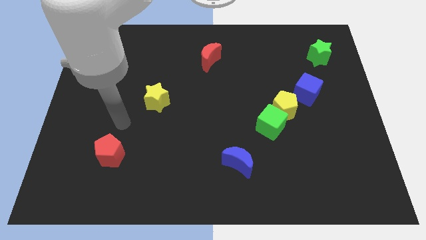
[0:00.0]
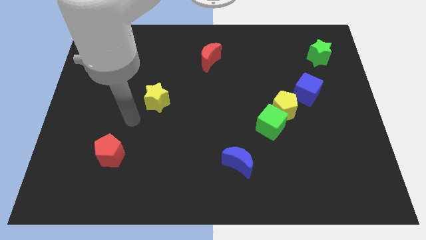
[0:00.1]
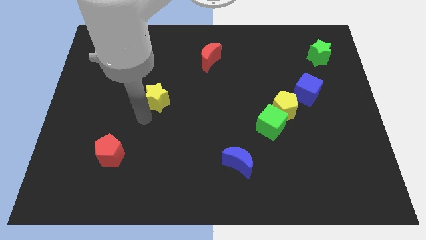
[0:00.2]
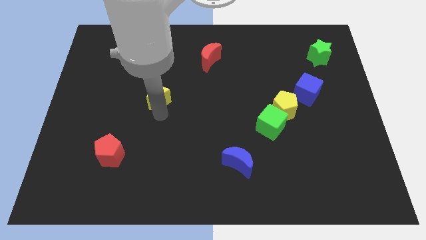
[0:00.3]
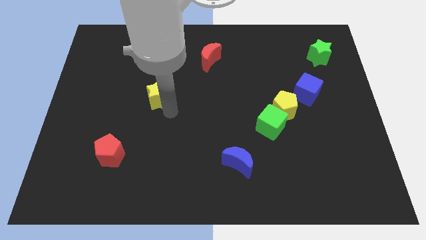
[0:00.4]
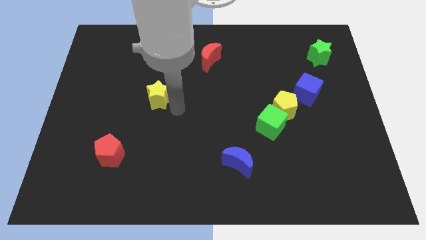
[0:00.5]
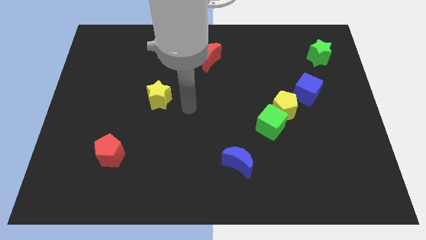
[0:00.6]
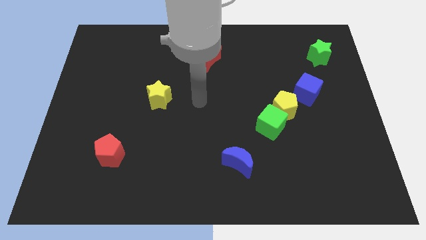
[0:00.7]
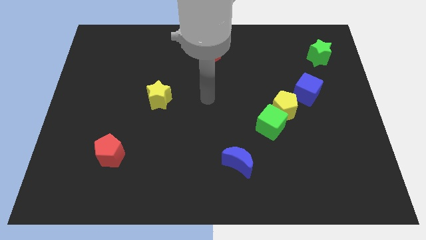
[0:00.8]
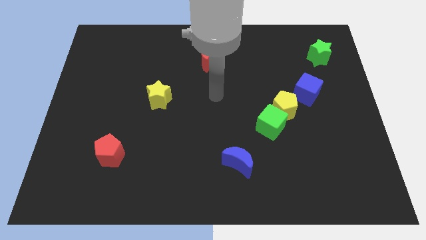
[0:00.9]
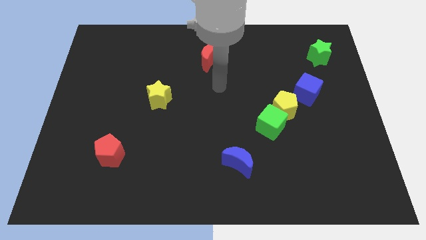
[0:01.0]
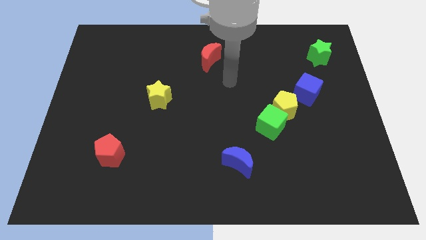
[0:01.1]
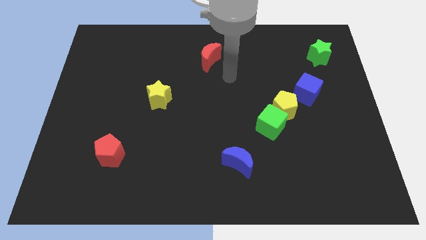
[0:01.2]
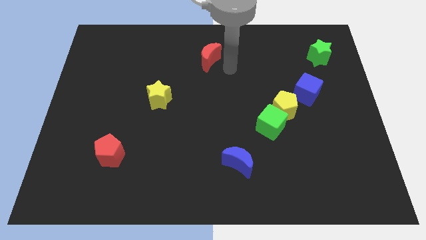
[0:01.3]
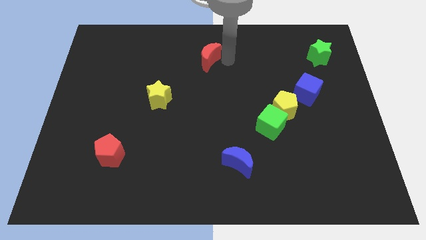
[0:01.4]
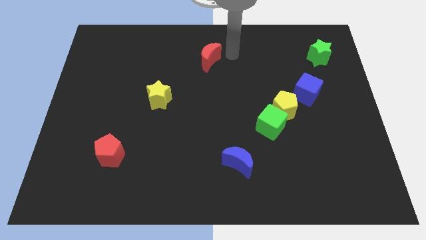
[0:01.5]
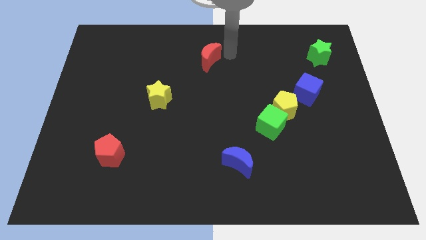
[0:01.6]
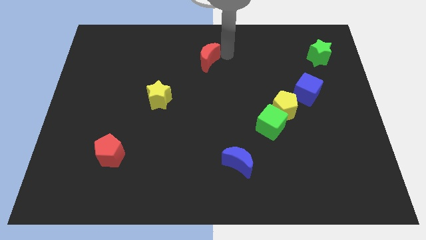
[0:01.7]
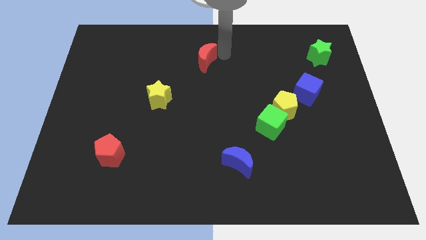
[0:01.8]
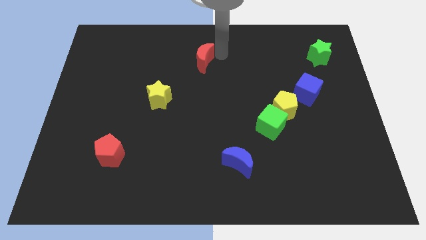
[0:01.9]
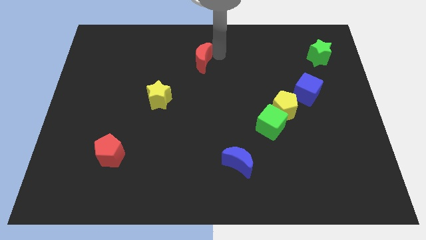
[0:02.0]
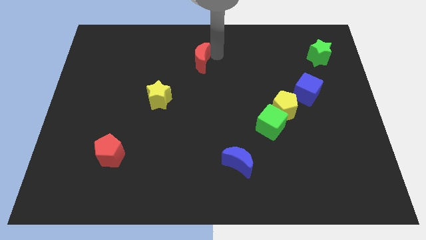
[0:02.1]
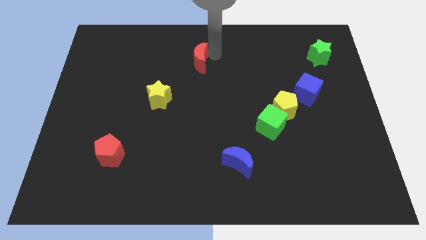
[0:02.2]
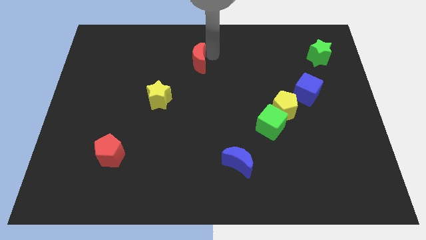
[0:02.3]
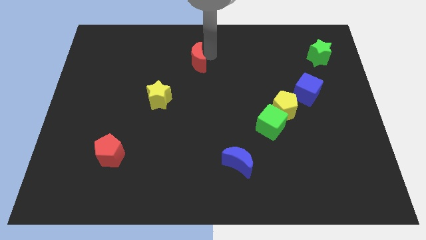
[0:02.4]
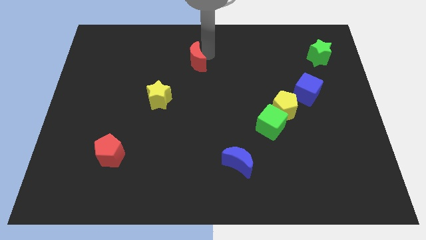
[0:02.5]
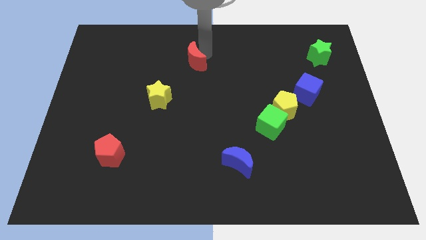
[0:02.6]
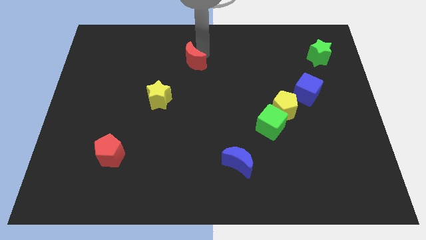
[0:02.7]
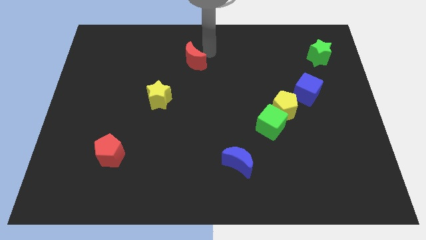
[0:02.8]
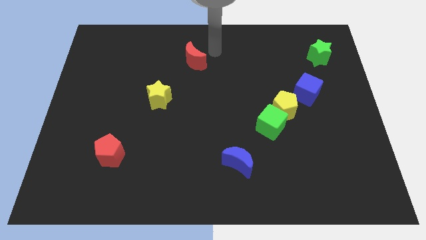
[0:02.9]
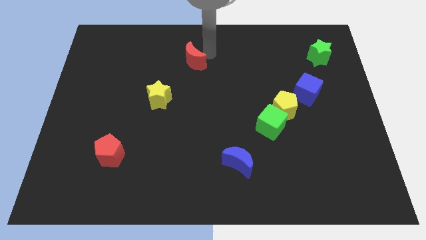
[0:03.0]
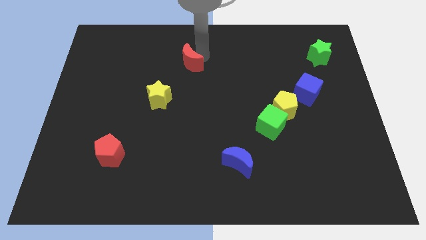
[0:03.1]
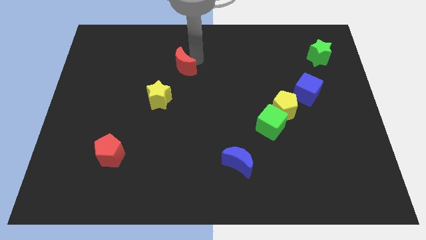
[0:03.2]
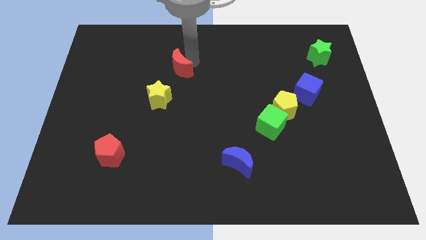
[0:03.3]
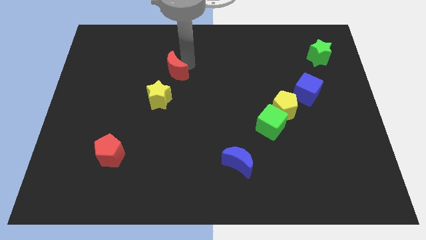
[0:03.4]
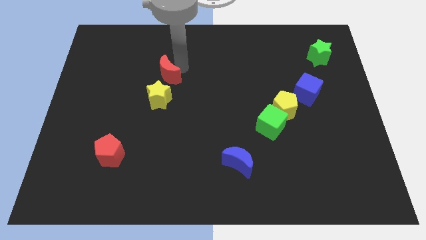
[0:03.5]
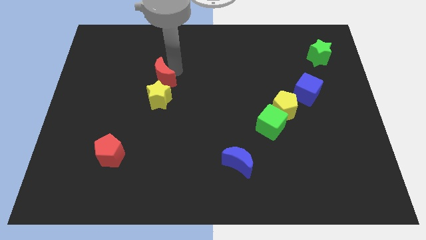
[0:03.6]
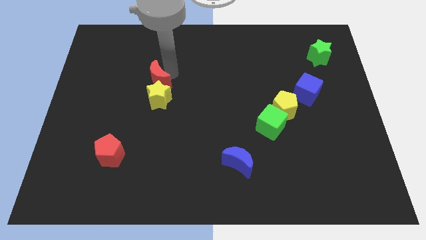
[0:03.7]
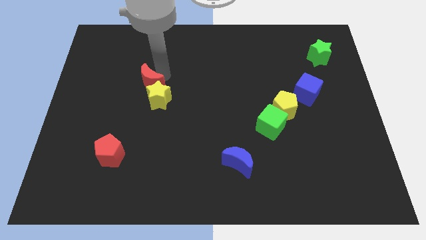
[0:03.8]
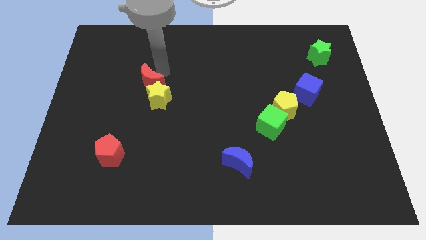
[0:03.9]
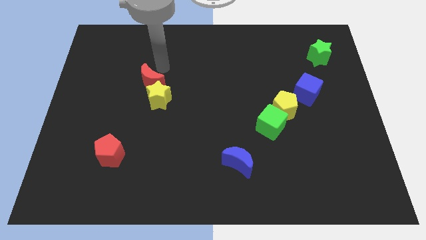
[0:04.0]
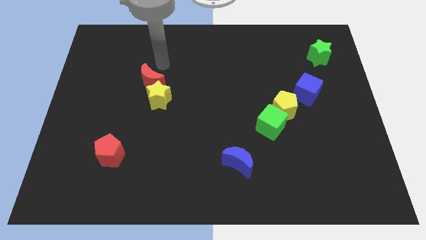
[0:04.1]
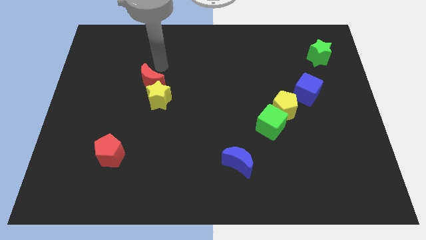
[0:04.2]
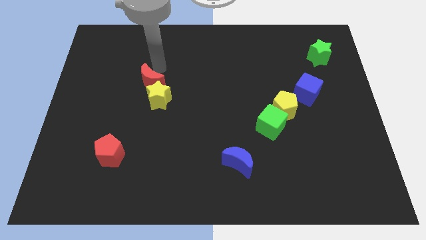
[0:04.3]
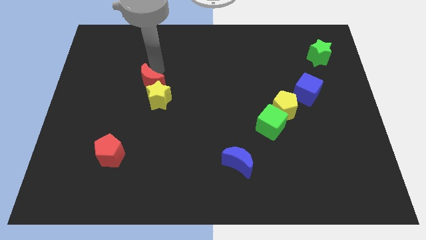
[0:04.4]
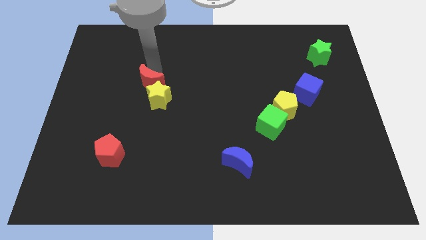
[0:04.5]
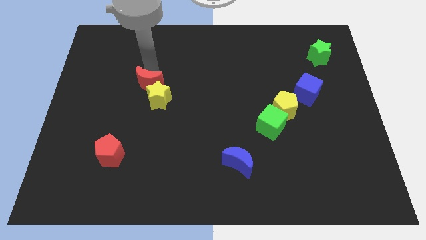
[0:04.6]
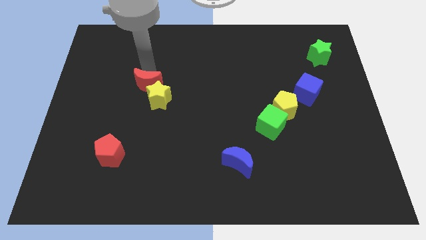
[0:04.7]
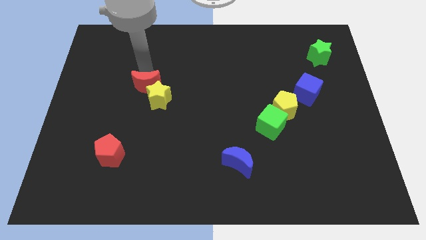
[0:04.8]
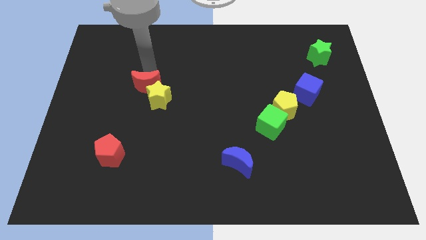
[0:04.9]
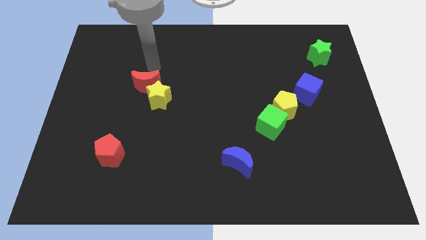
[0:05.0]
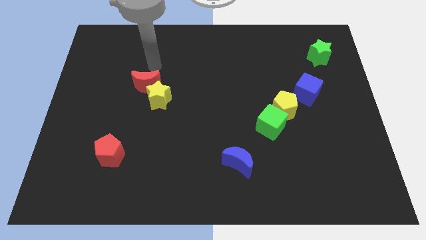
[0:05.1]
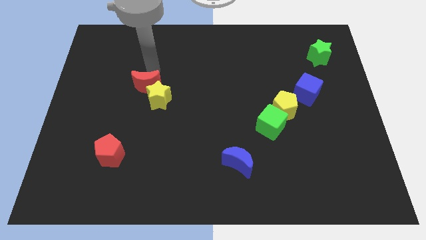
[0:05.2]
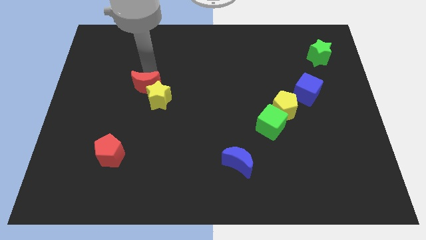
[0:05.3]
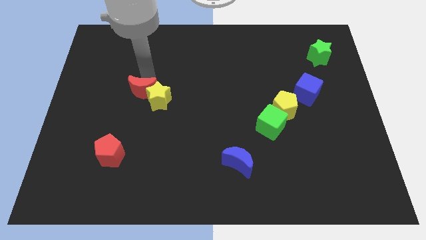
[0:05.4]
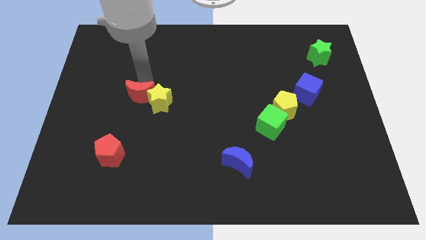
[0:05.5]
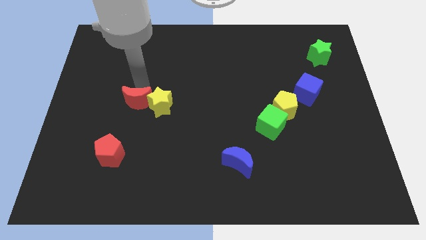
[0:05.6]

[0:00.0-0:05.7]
move the red moon diagonally down and to the left of the yellow star

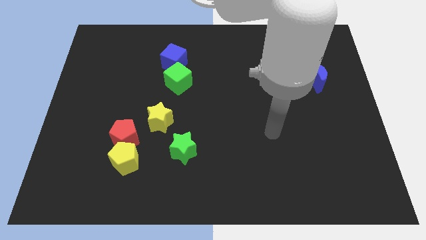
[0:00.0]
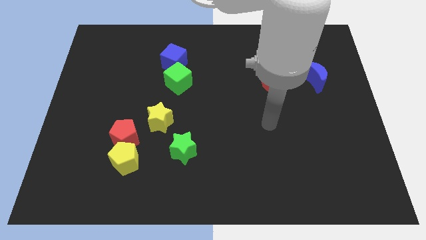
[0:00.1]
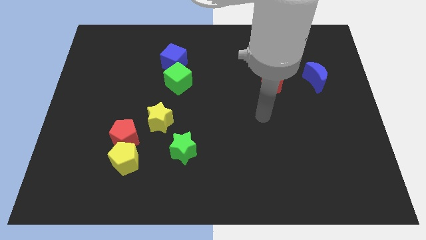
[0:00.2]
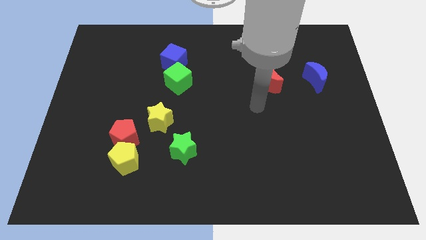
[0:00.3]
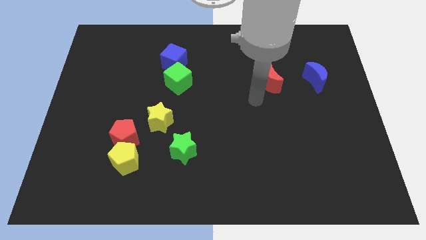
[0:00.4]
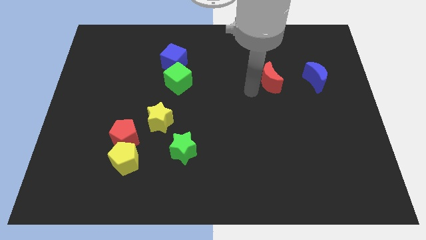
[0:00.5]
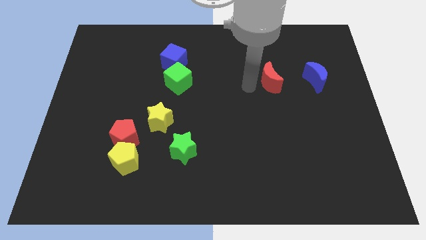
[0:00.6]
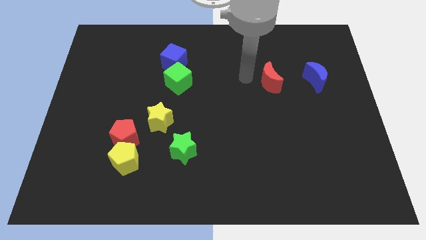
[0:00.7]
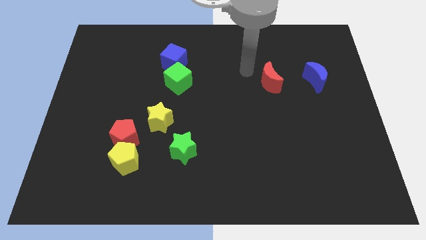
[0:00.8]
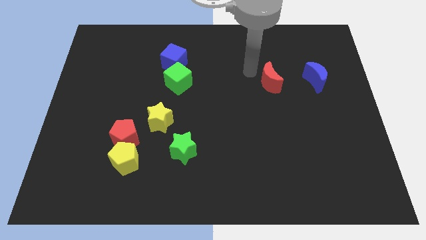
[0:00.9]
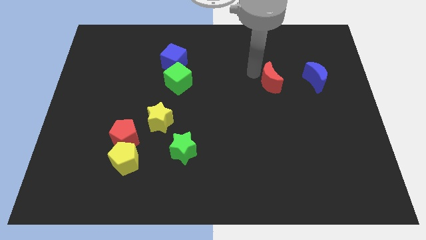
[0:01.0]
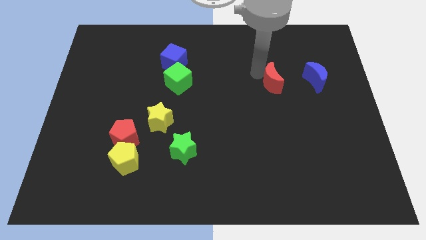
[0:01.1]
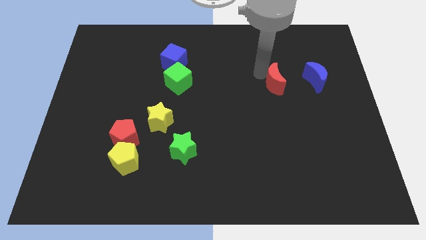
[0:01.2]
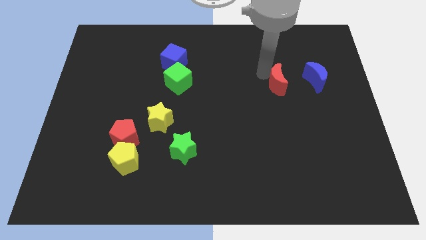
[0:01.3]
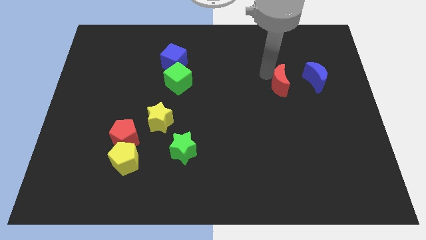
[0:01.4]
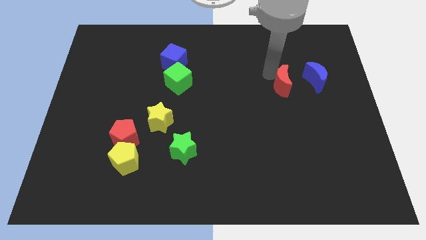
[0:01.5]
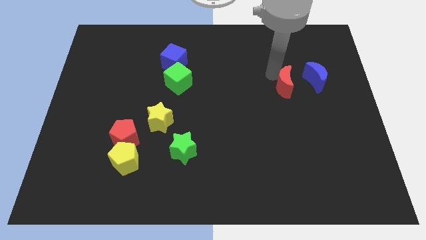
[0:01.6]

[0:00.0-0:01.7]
put the red moon to the bottom left of the blue moon
